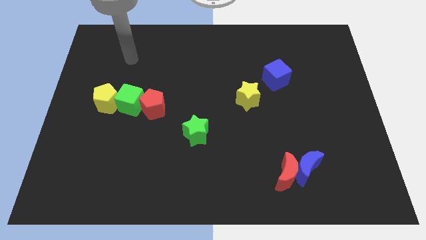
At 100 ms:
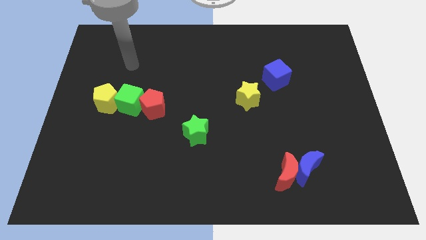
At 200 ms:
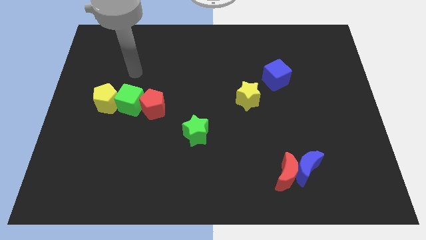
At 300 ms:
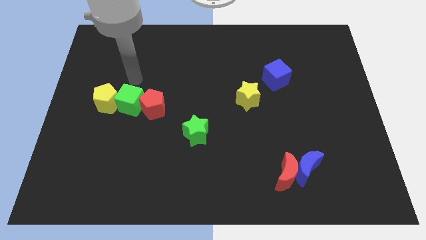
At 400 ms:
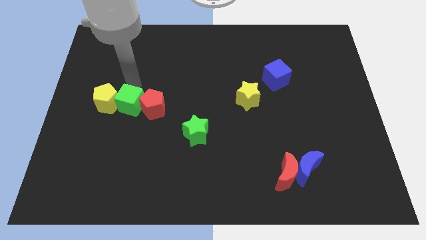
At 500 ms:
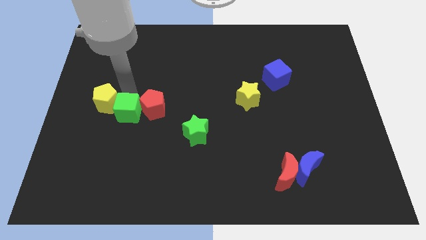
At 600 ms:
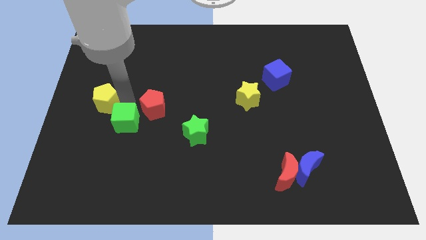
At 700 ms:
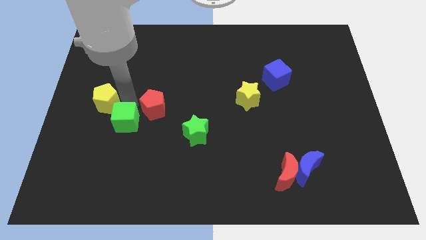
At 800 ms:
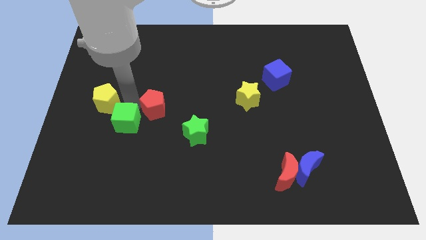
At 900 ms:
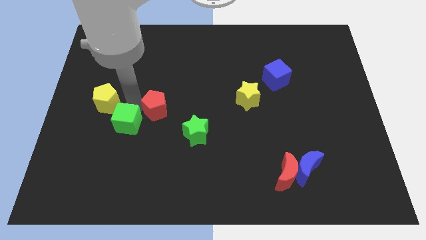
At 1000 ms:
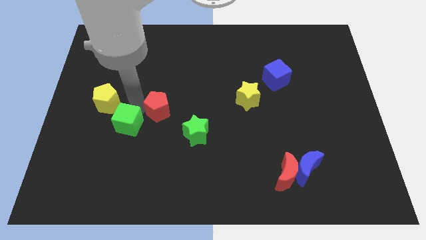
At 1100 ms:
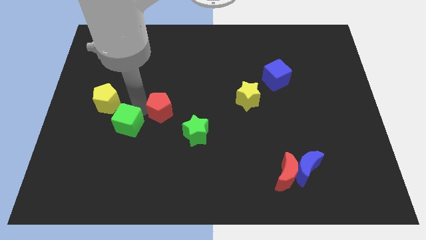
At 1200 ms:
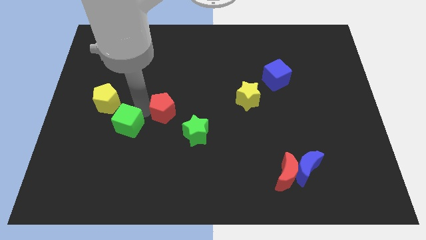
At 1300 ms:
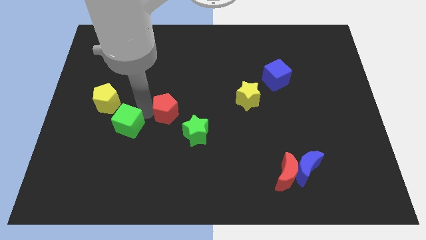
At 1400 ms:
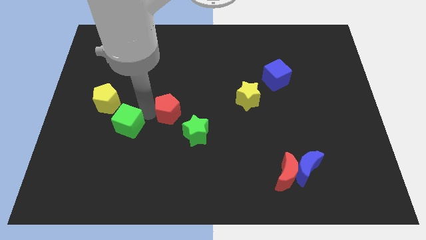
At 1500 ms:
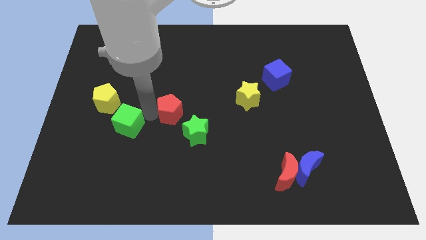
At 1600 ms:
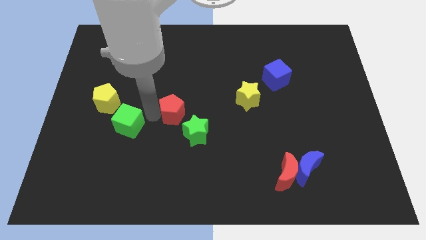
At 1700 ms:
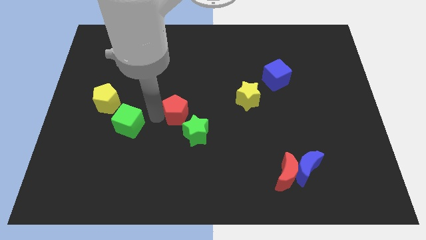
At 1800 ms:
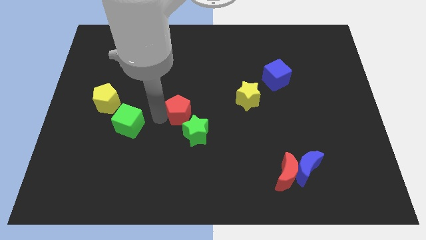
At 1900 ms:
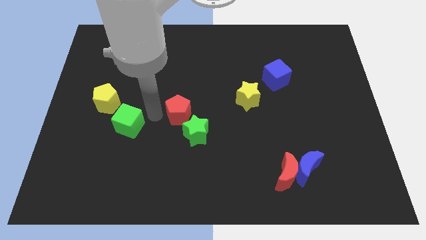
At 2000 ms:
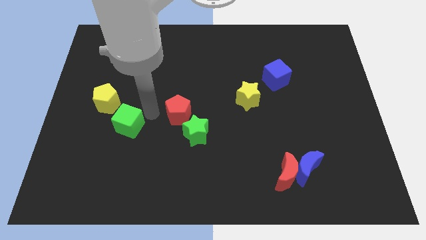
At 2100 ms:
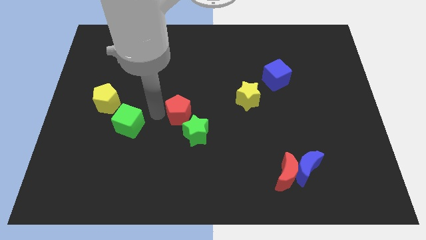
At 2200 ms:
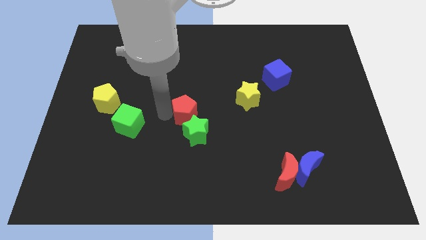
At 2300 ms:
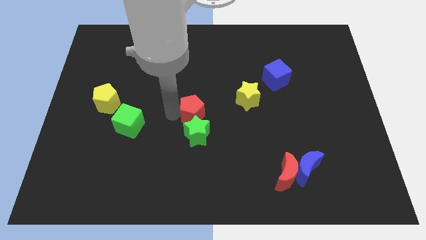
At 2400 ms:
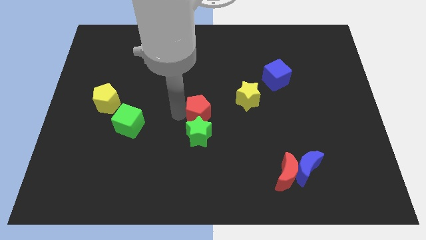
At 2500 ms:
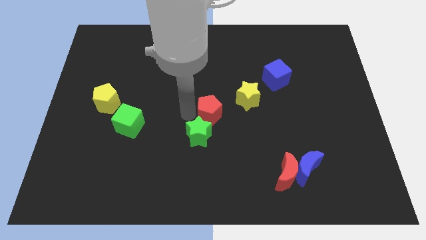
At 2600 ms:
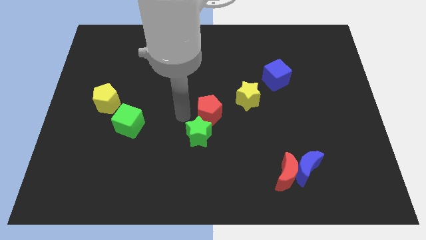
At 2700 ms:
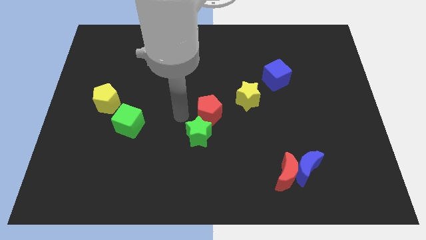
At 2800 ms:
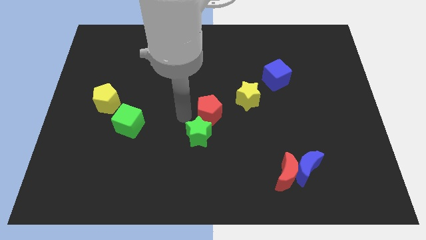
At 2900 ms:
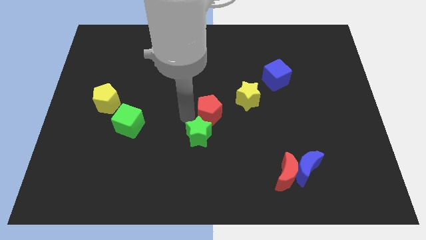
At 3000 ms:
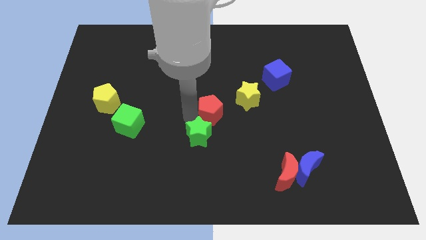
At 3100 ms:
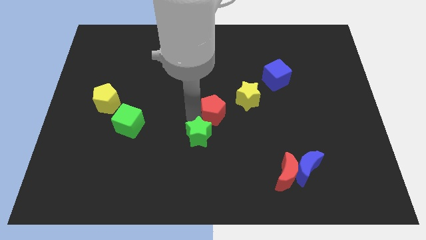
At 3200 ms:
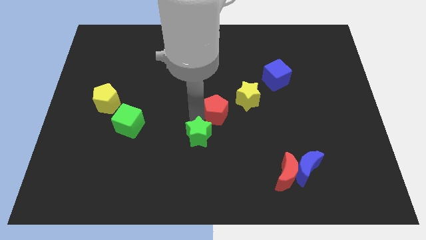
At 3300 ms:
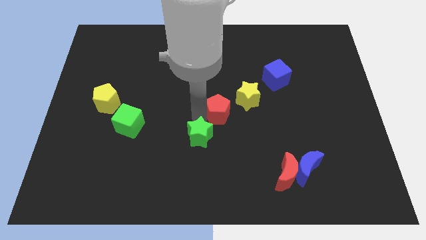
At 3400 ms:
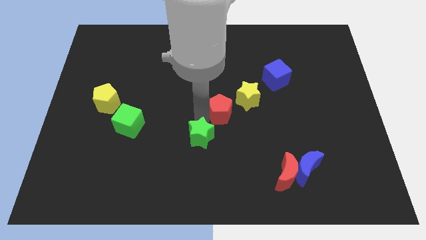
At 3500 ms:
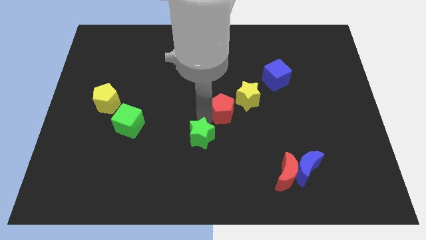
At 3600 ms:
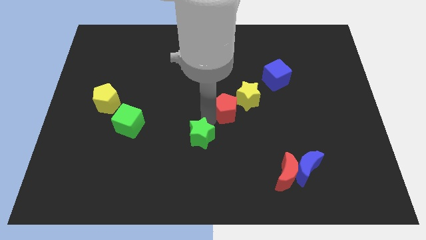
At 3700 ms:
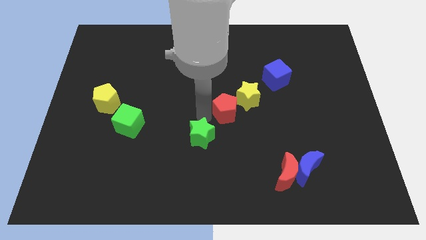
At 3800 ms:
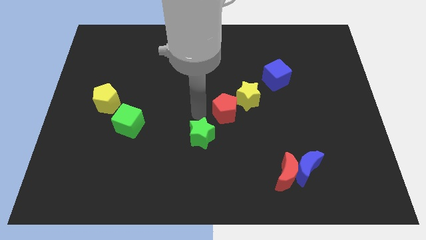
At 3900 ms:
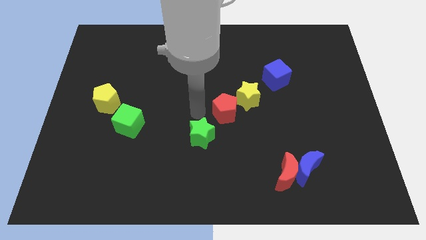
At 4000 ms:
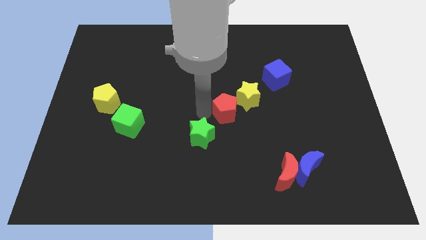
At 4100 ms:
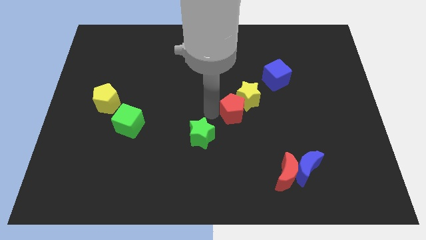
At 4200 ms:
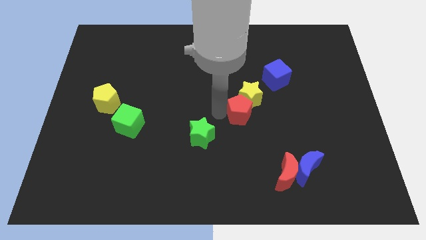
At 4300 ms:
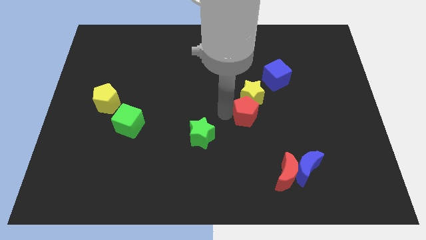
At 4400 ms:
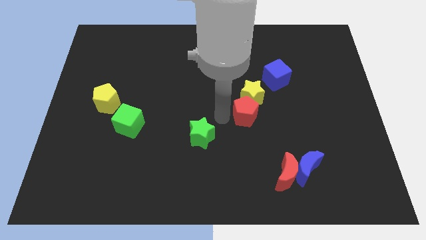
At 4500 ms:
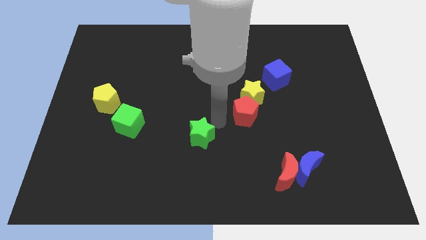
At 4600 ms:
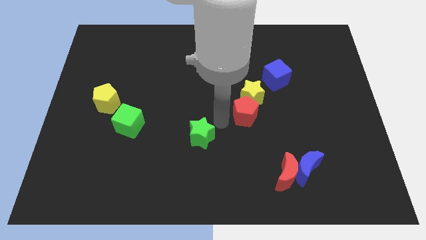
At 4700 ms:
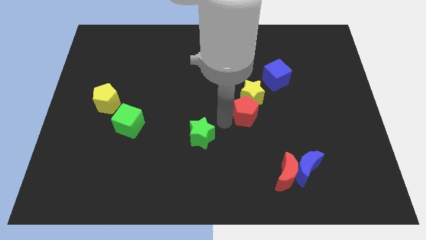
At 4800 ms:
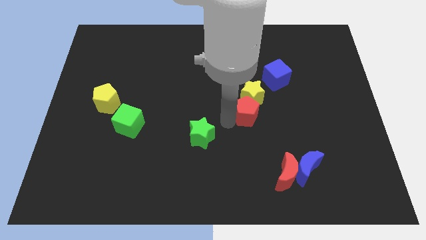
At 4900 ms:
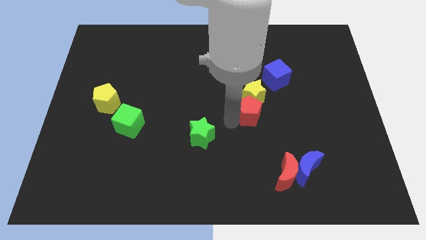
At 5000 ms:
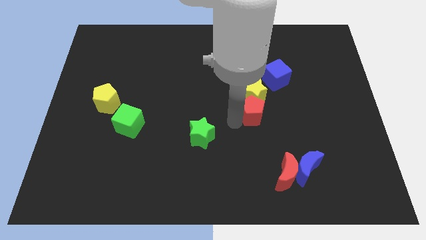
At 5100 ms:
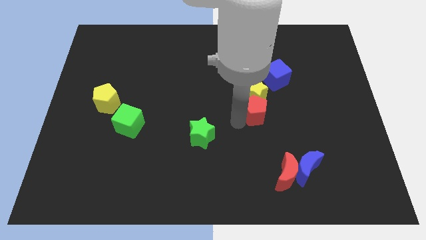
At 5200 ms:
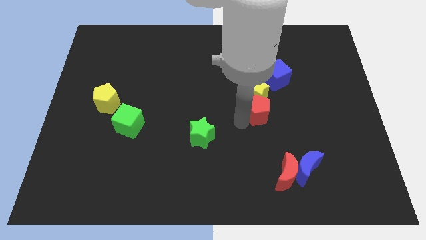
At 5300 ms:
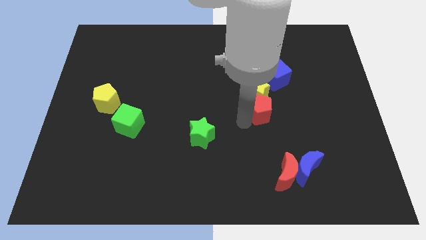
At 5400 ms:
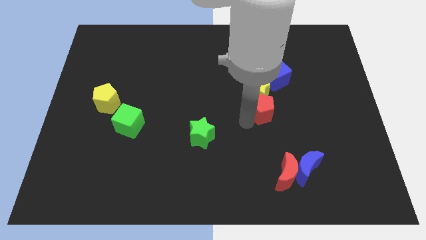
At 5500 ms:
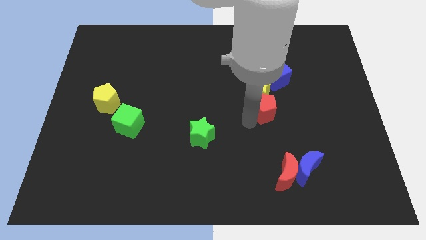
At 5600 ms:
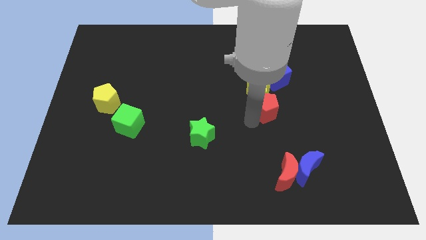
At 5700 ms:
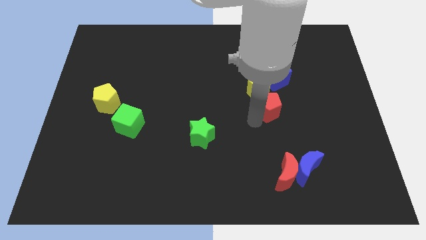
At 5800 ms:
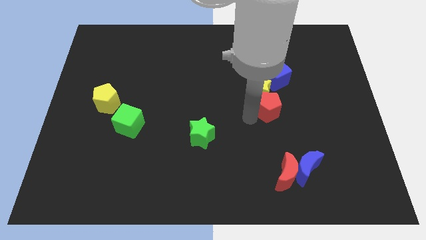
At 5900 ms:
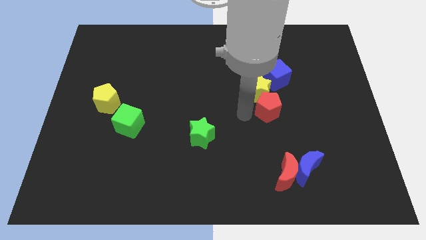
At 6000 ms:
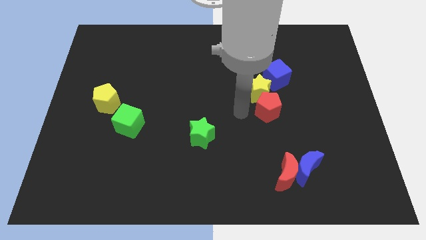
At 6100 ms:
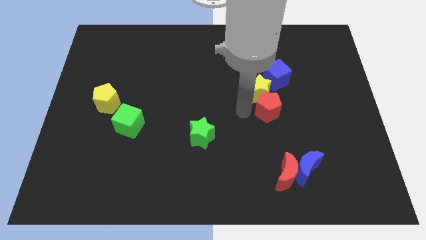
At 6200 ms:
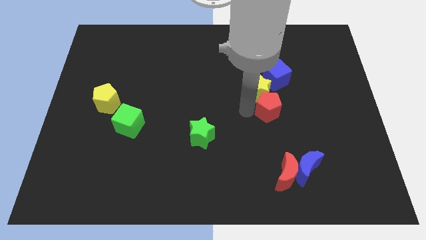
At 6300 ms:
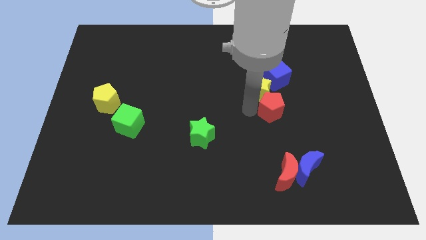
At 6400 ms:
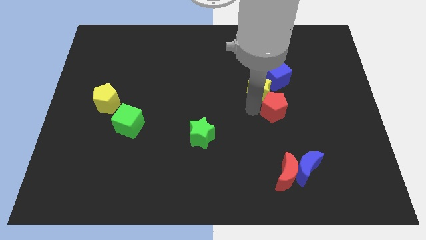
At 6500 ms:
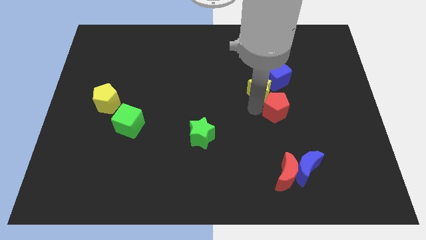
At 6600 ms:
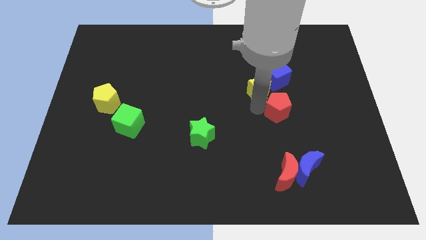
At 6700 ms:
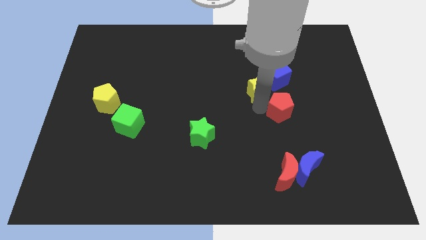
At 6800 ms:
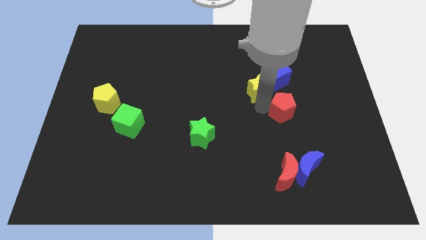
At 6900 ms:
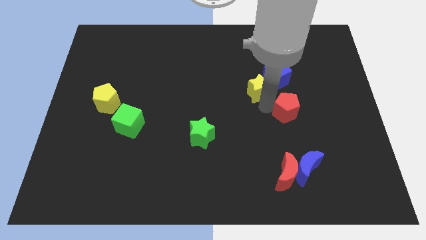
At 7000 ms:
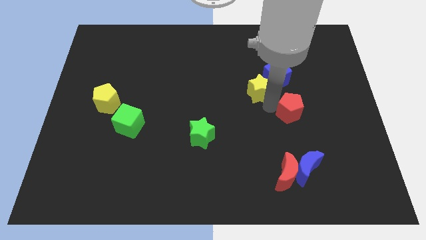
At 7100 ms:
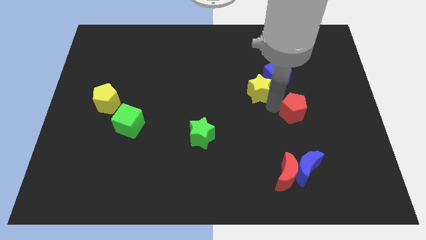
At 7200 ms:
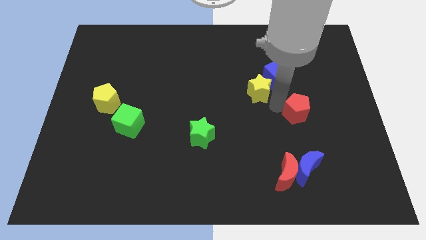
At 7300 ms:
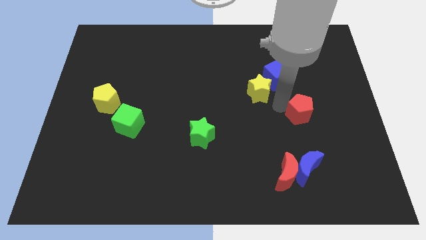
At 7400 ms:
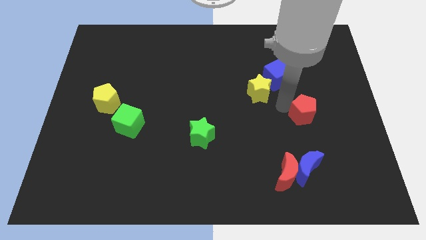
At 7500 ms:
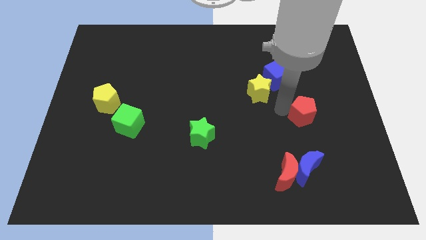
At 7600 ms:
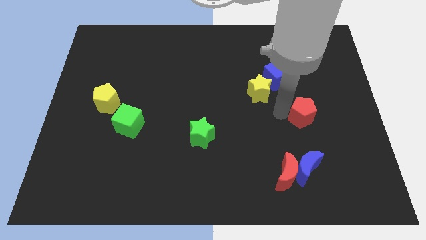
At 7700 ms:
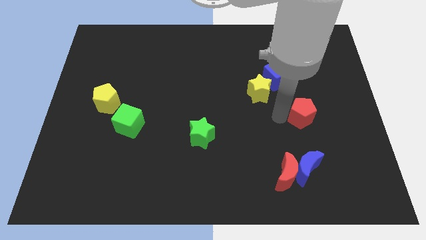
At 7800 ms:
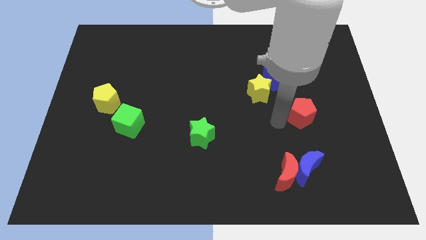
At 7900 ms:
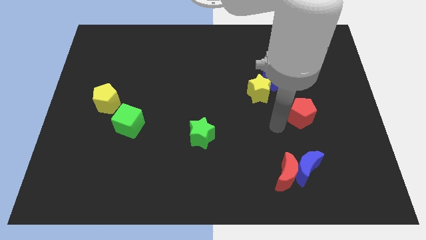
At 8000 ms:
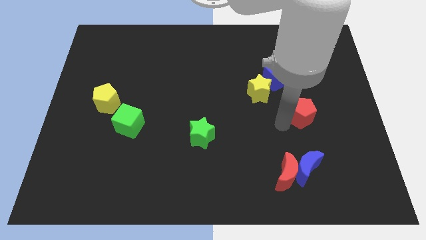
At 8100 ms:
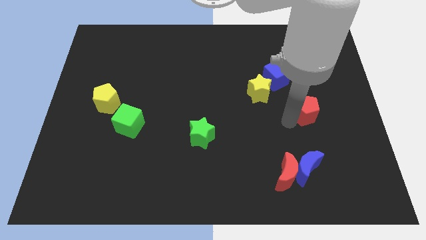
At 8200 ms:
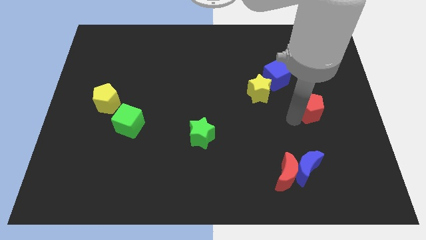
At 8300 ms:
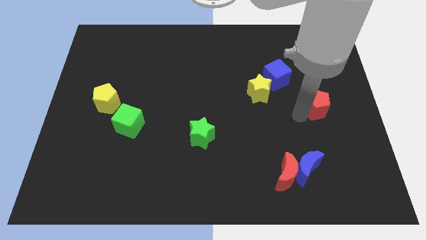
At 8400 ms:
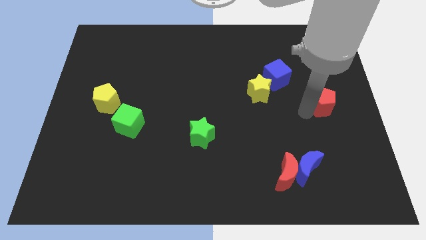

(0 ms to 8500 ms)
slide the red pentagon to the right side
